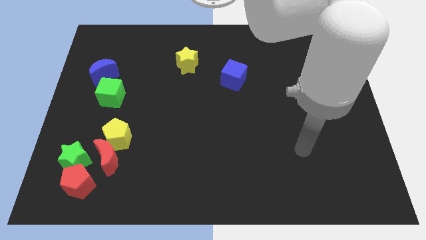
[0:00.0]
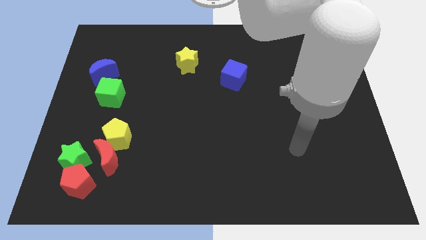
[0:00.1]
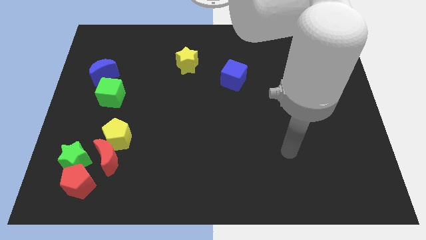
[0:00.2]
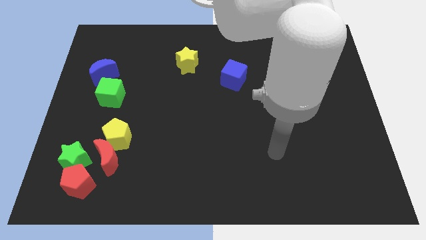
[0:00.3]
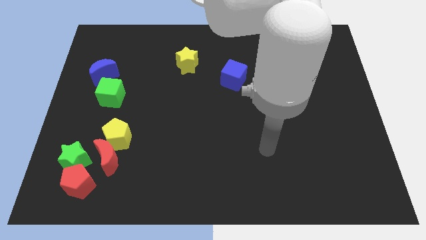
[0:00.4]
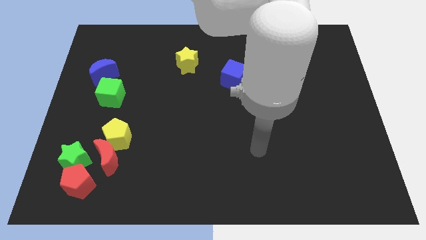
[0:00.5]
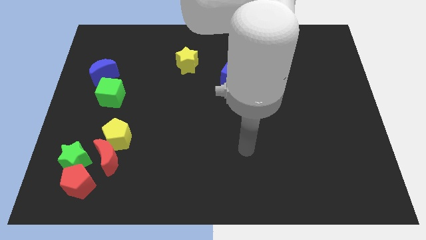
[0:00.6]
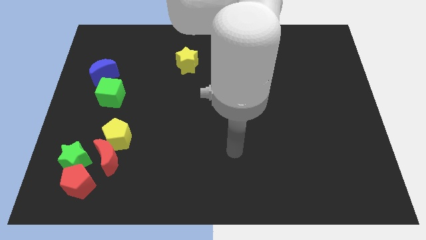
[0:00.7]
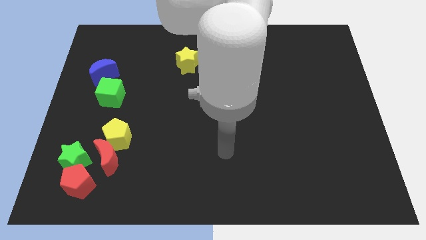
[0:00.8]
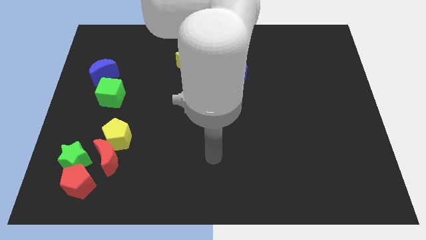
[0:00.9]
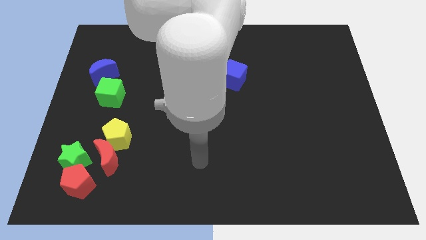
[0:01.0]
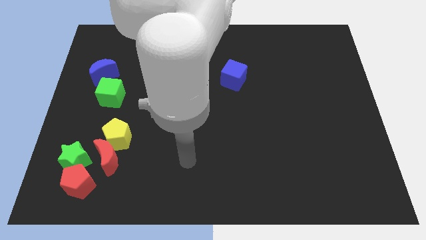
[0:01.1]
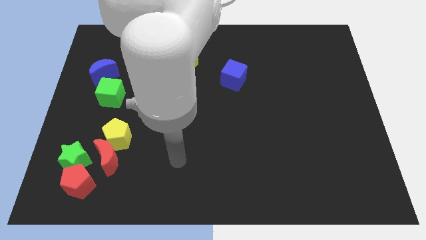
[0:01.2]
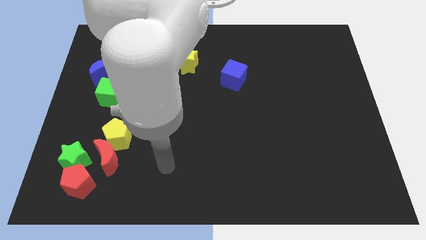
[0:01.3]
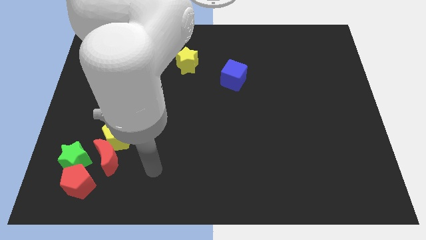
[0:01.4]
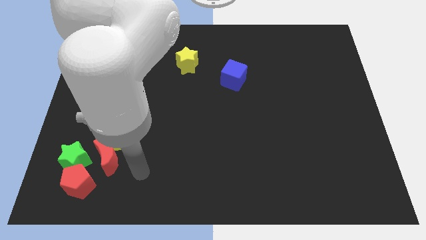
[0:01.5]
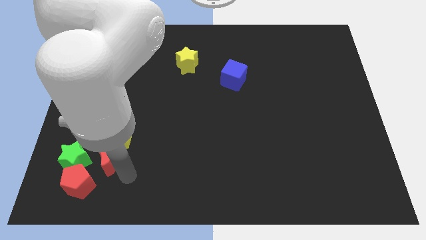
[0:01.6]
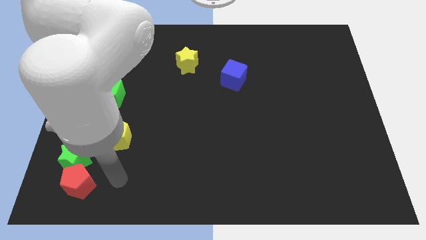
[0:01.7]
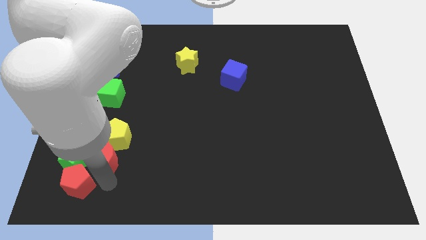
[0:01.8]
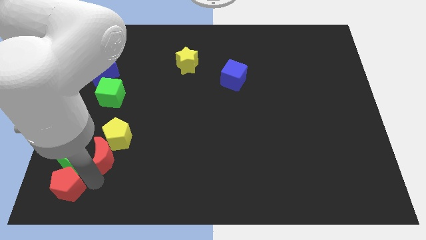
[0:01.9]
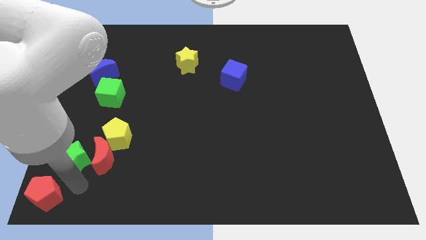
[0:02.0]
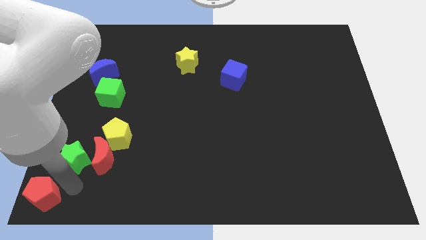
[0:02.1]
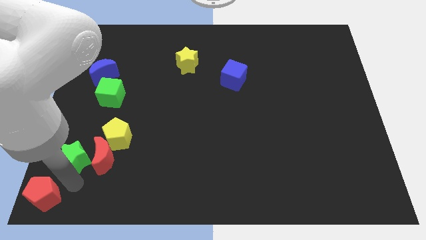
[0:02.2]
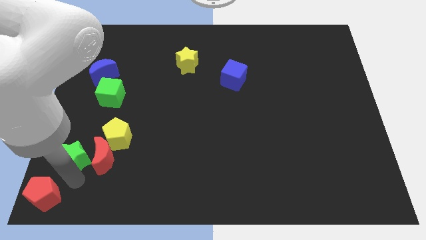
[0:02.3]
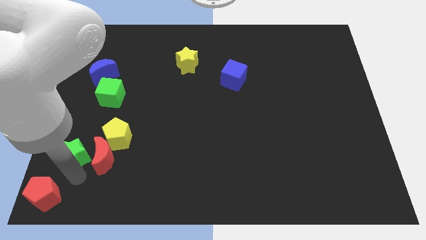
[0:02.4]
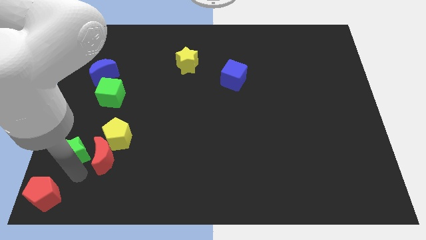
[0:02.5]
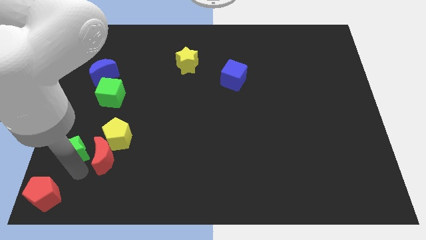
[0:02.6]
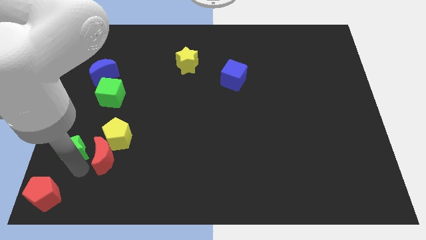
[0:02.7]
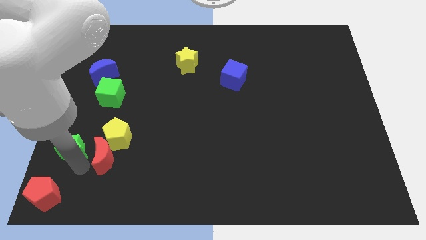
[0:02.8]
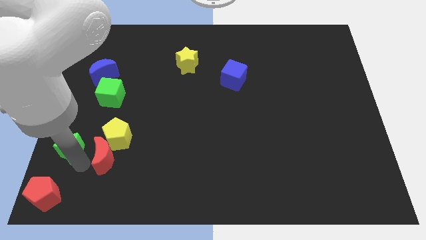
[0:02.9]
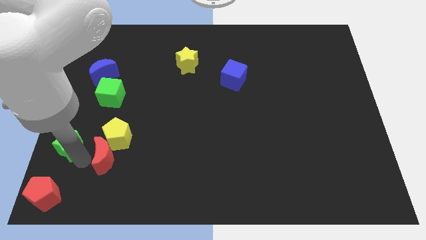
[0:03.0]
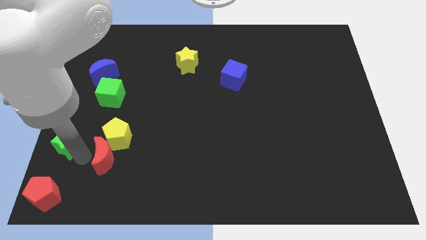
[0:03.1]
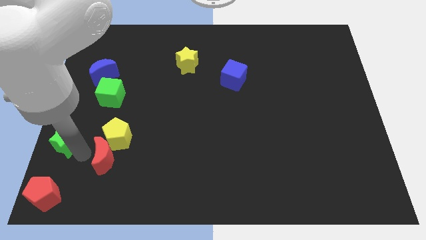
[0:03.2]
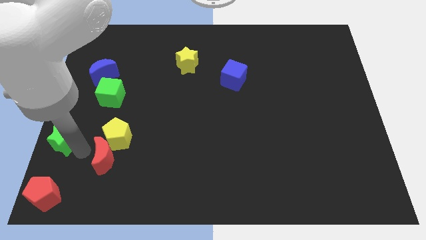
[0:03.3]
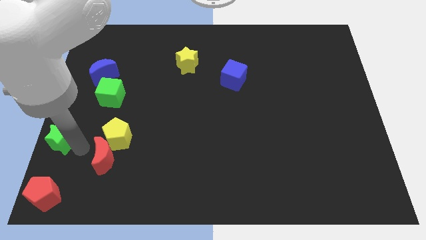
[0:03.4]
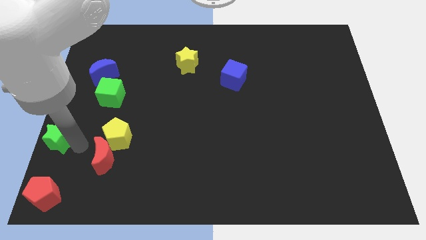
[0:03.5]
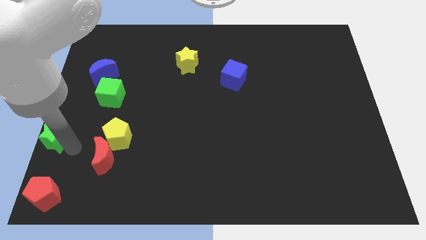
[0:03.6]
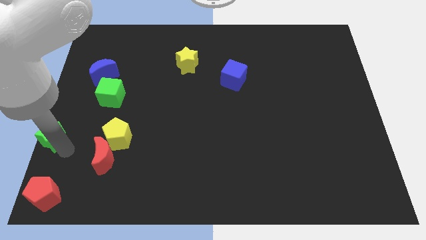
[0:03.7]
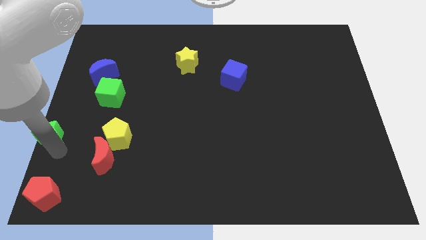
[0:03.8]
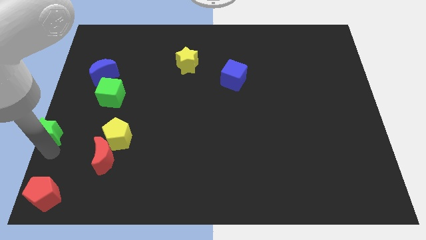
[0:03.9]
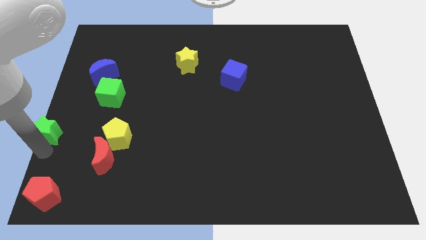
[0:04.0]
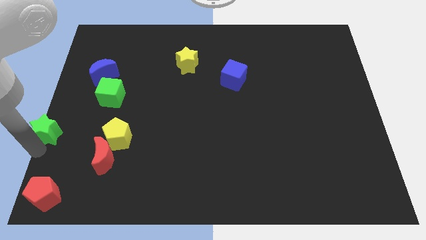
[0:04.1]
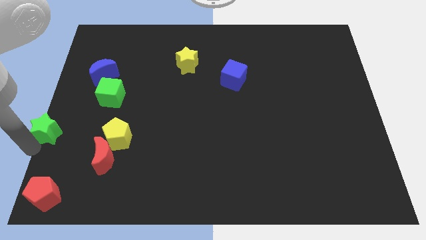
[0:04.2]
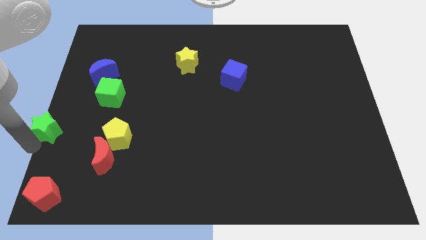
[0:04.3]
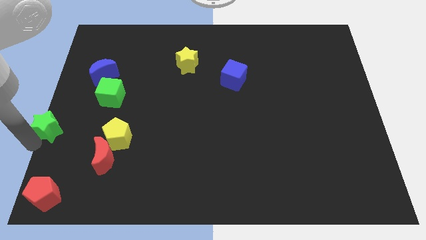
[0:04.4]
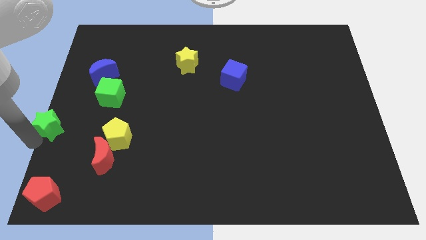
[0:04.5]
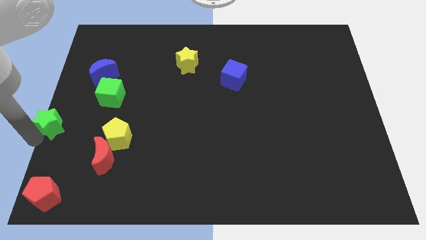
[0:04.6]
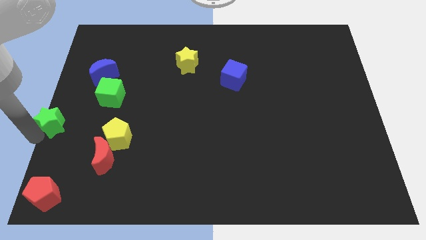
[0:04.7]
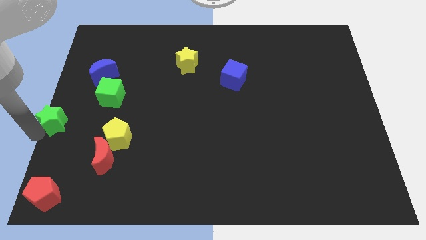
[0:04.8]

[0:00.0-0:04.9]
move the green star a little upwards

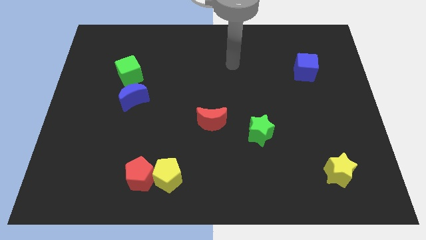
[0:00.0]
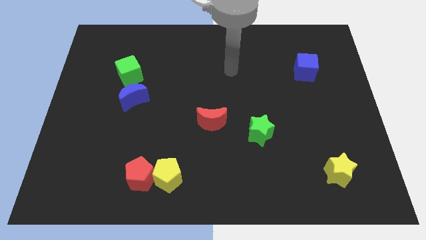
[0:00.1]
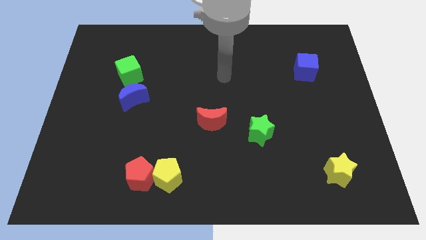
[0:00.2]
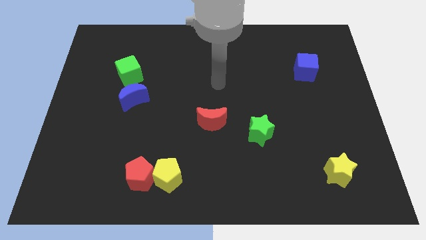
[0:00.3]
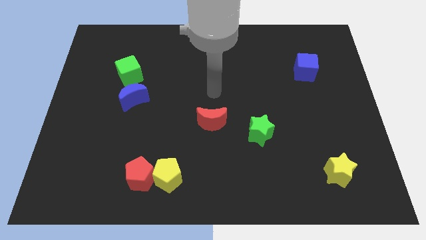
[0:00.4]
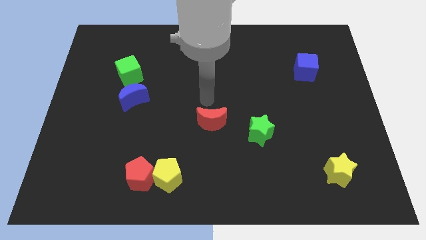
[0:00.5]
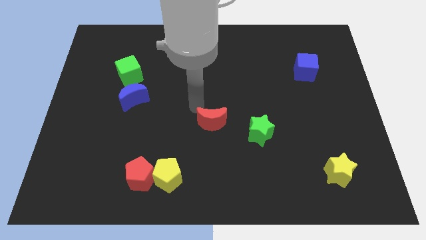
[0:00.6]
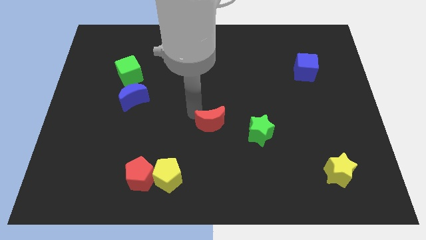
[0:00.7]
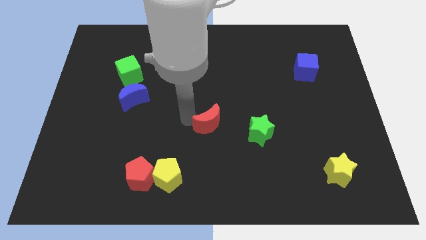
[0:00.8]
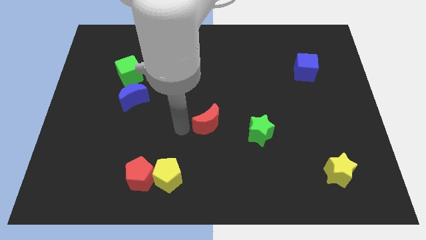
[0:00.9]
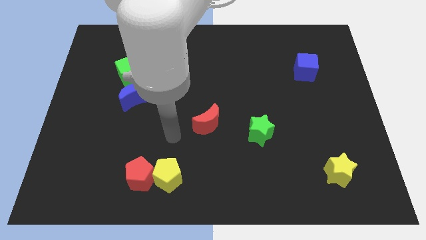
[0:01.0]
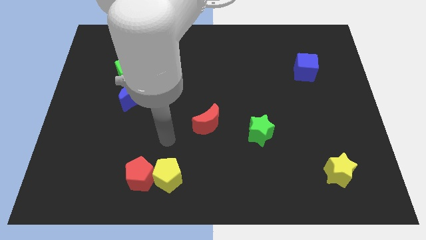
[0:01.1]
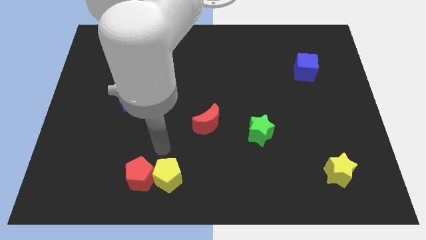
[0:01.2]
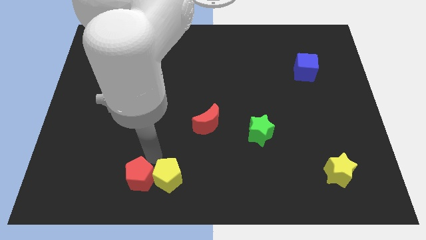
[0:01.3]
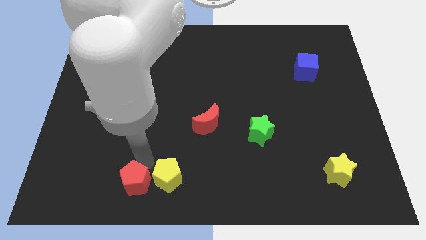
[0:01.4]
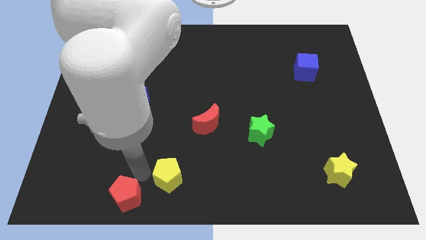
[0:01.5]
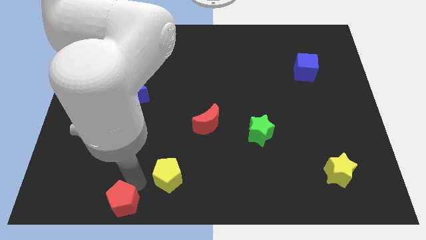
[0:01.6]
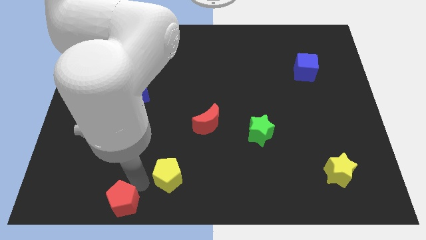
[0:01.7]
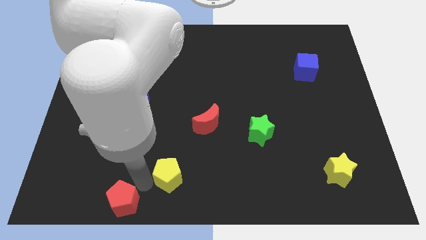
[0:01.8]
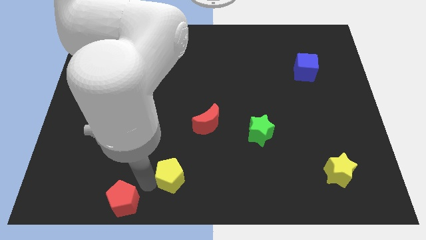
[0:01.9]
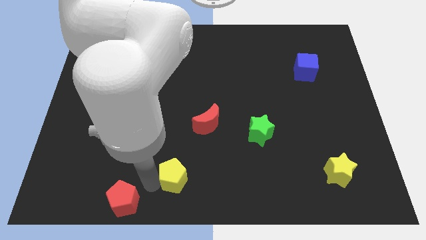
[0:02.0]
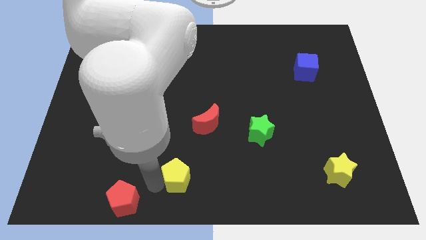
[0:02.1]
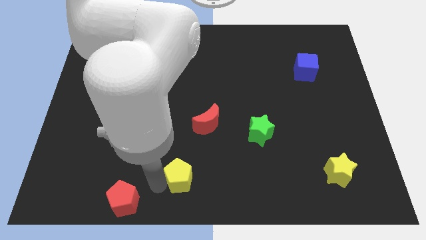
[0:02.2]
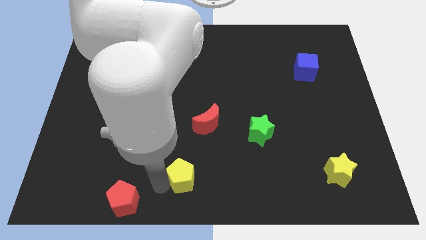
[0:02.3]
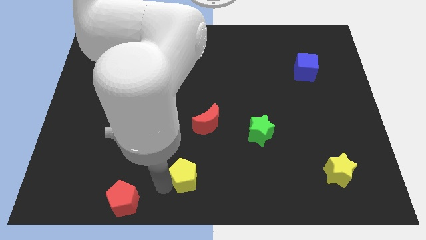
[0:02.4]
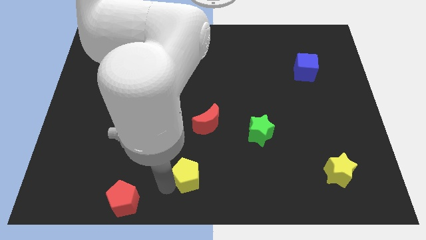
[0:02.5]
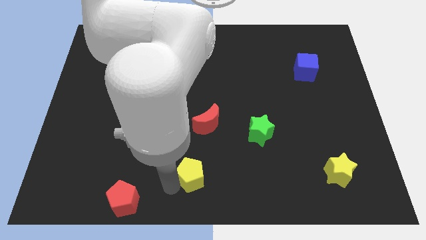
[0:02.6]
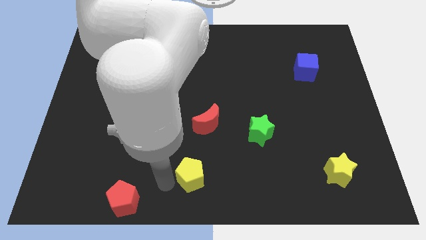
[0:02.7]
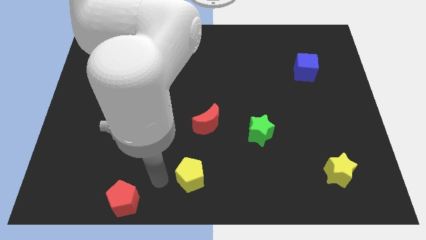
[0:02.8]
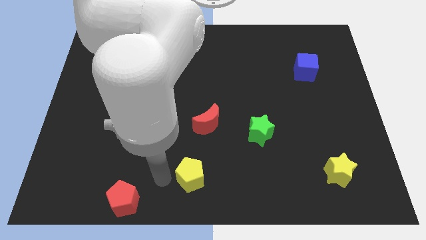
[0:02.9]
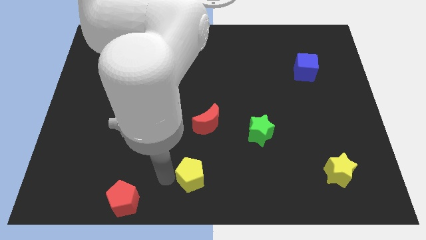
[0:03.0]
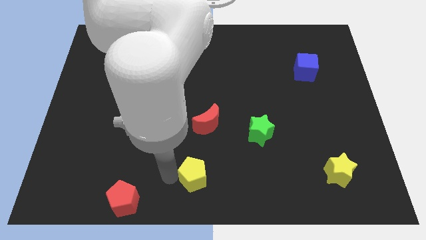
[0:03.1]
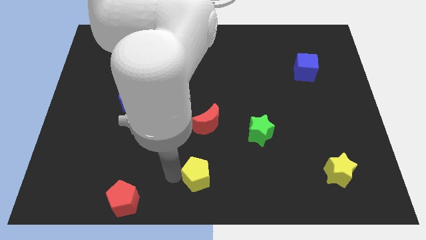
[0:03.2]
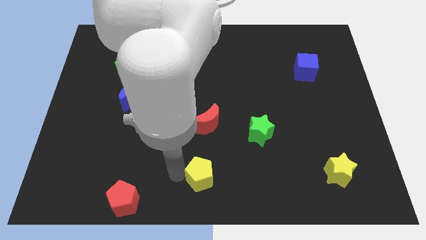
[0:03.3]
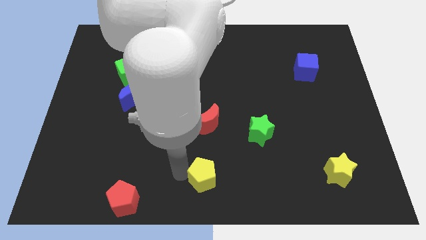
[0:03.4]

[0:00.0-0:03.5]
slide the yellow pentagon somewhat right
